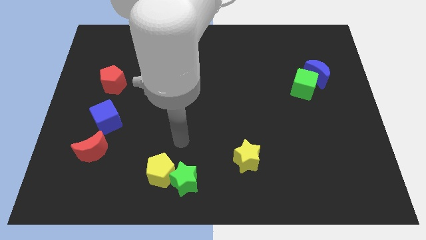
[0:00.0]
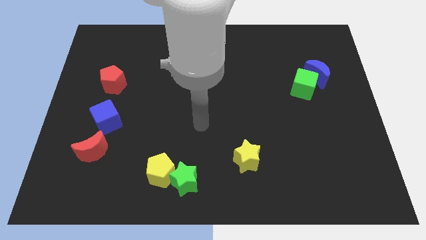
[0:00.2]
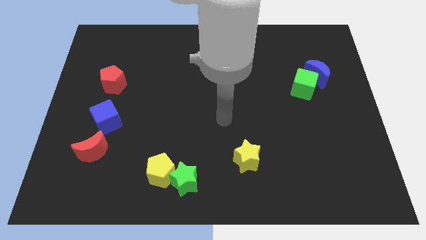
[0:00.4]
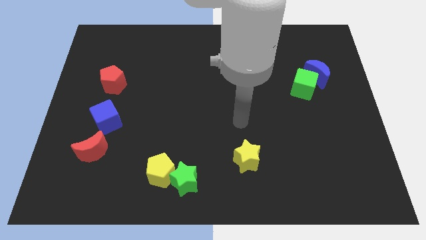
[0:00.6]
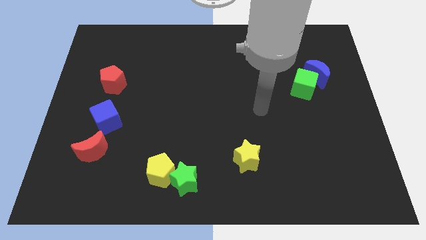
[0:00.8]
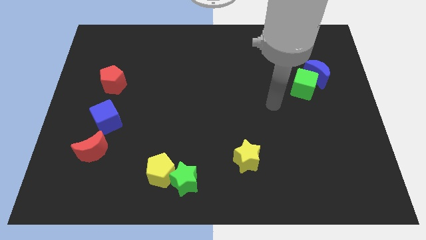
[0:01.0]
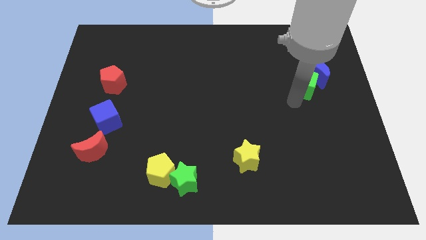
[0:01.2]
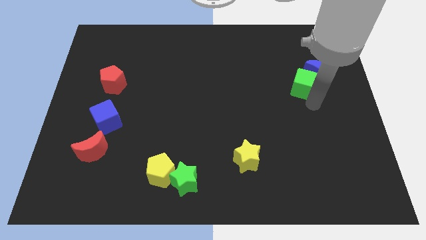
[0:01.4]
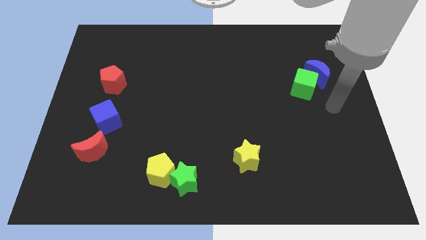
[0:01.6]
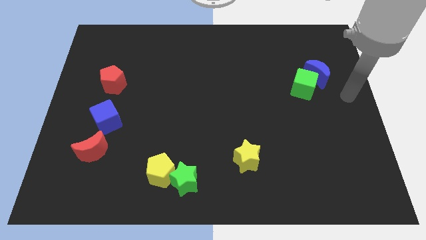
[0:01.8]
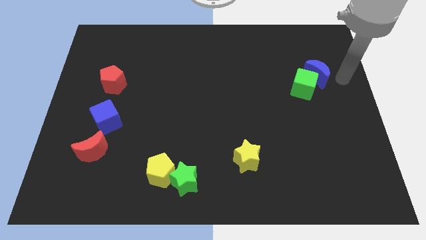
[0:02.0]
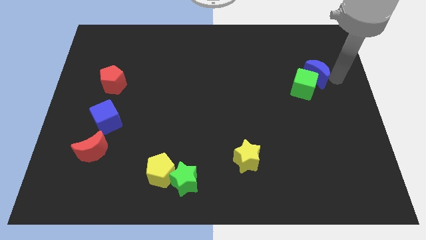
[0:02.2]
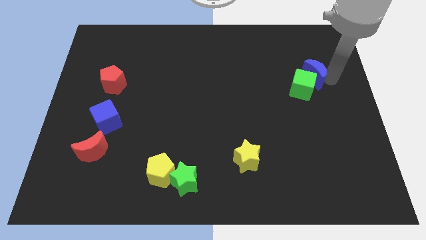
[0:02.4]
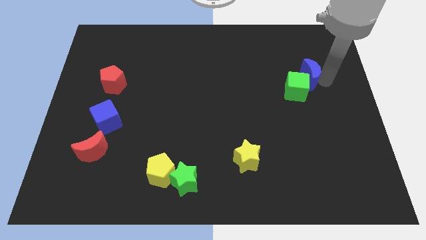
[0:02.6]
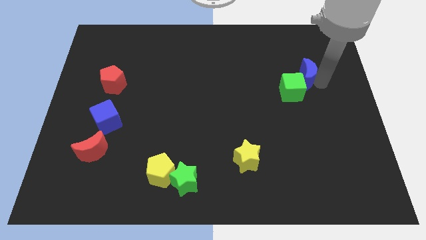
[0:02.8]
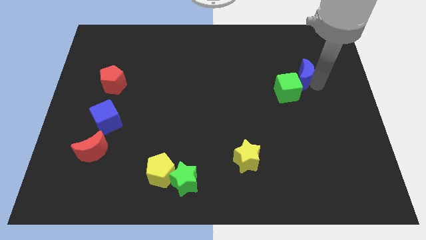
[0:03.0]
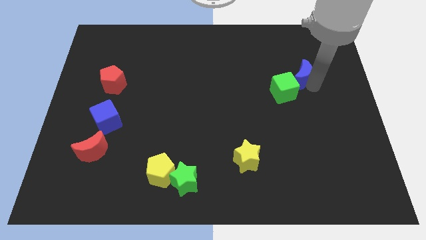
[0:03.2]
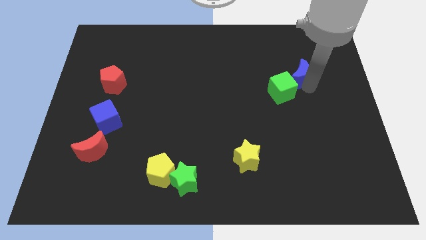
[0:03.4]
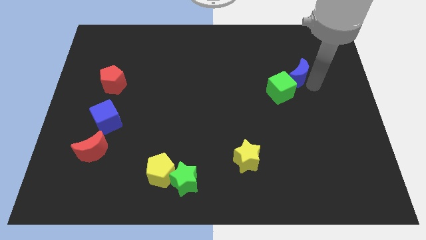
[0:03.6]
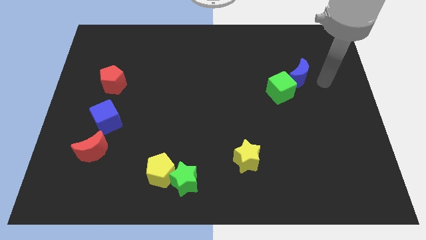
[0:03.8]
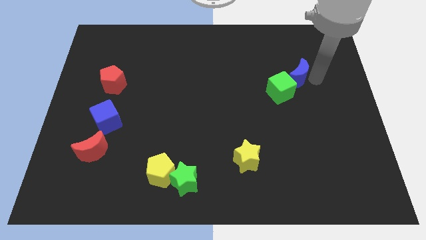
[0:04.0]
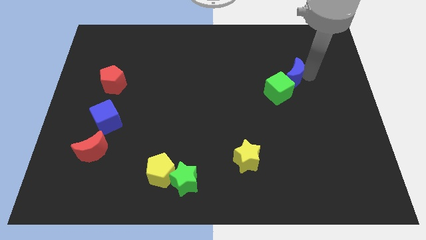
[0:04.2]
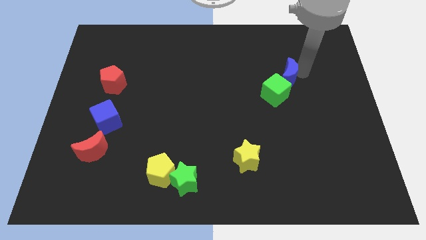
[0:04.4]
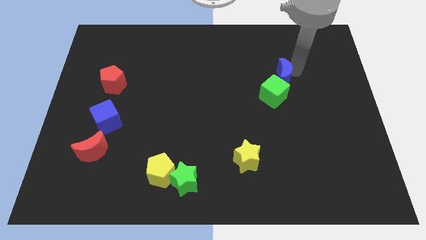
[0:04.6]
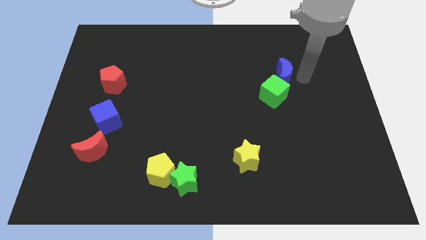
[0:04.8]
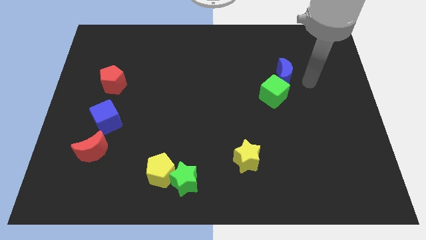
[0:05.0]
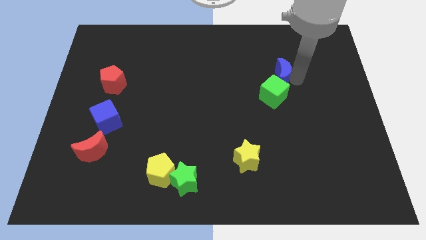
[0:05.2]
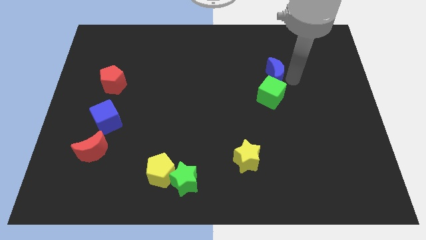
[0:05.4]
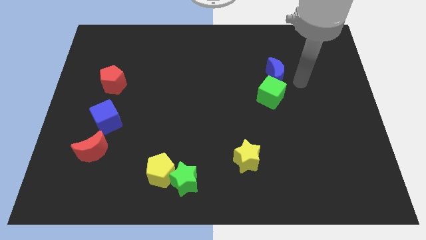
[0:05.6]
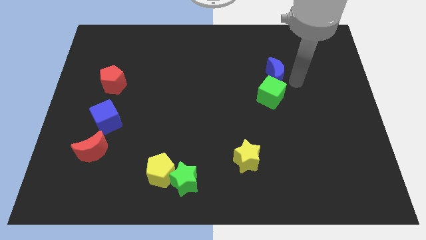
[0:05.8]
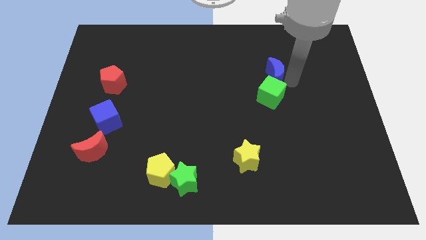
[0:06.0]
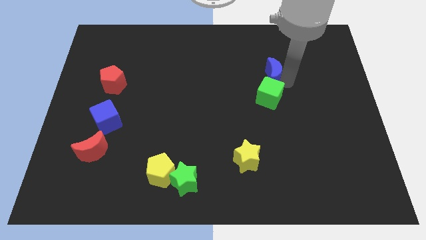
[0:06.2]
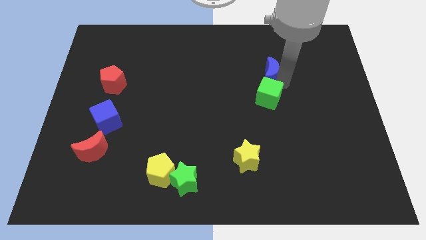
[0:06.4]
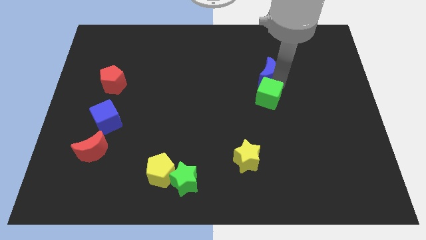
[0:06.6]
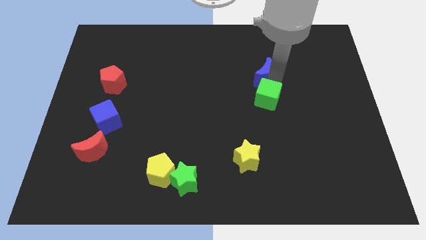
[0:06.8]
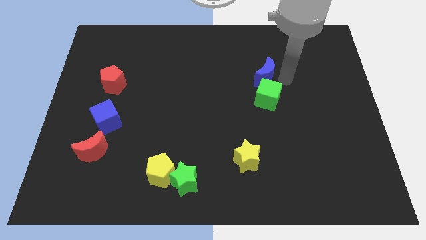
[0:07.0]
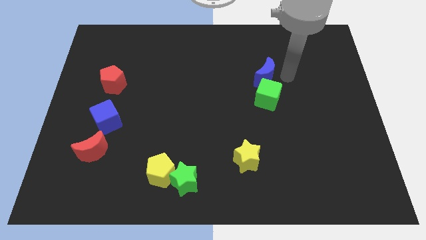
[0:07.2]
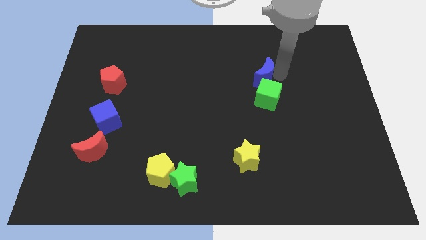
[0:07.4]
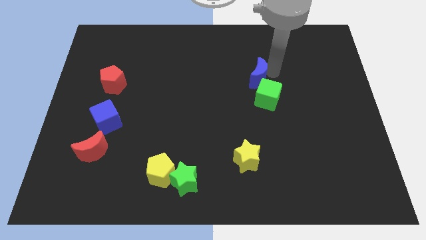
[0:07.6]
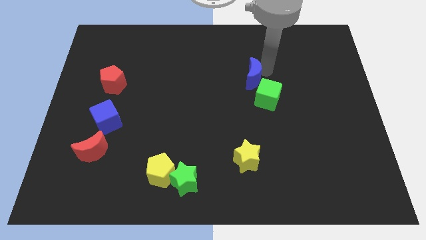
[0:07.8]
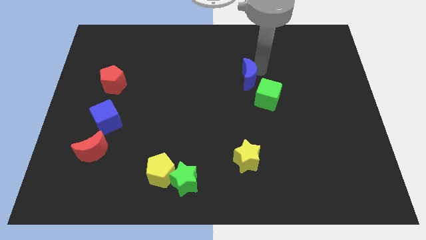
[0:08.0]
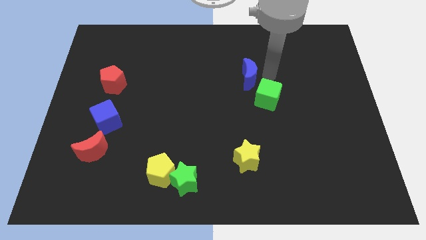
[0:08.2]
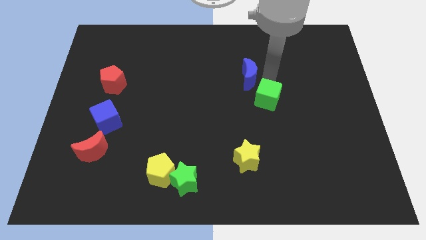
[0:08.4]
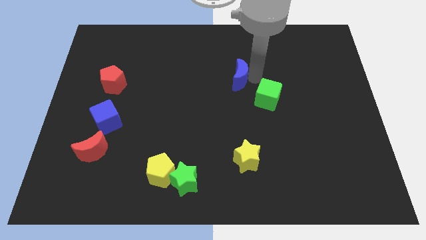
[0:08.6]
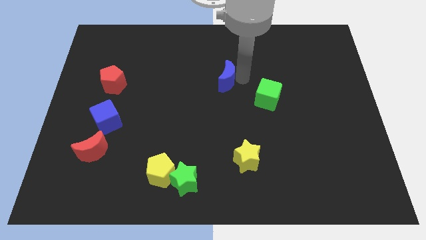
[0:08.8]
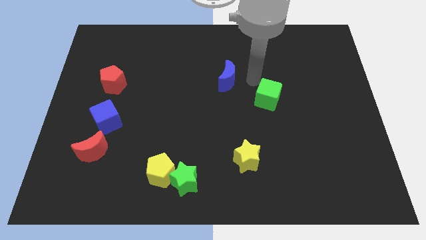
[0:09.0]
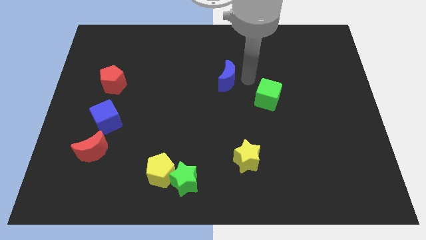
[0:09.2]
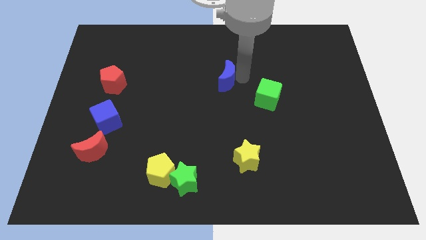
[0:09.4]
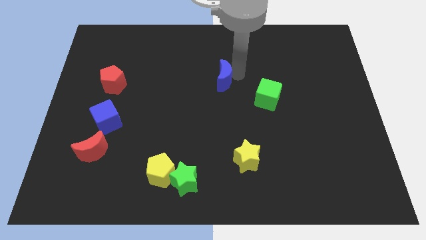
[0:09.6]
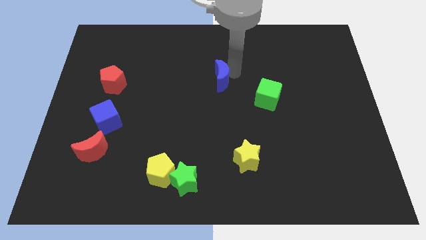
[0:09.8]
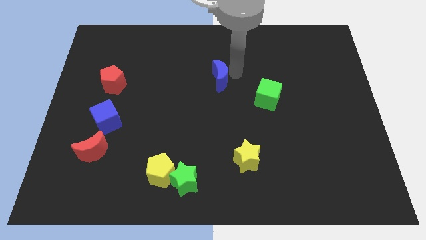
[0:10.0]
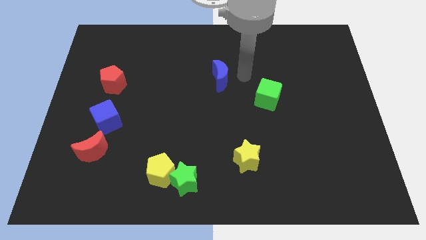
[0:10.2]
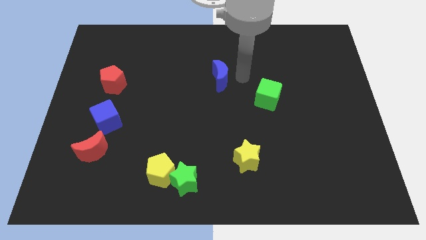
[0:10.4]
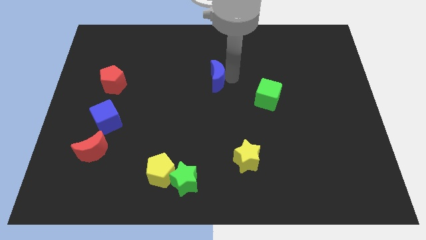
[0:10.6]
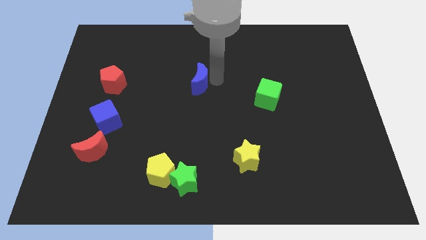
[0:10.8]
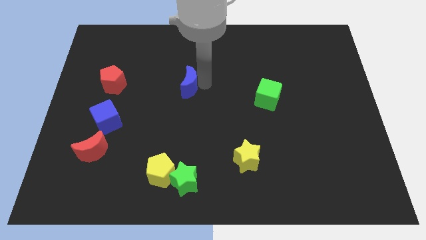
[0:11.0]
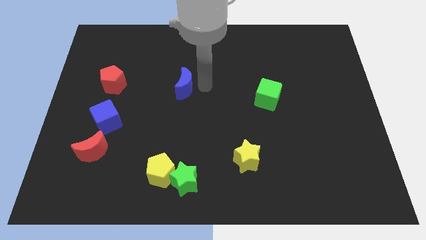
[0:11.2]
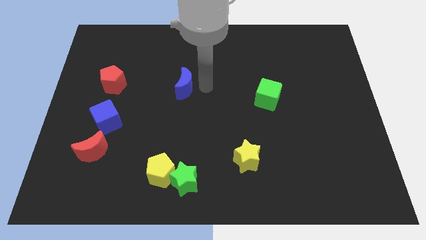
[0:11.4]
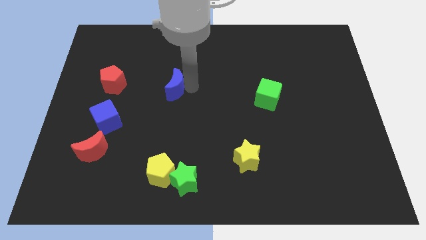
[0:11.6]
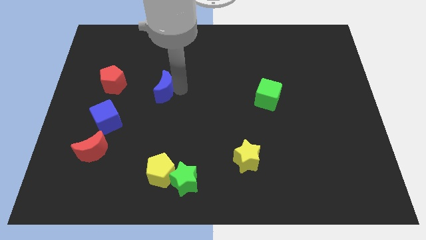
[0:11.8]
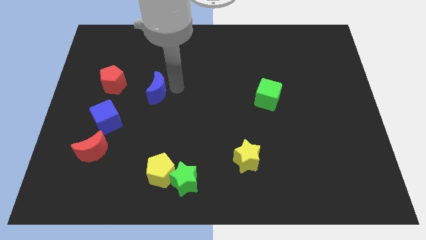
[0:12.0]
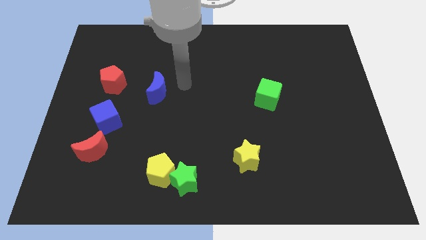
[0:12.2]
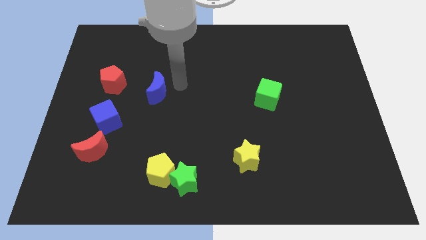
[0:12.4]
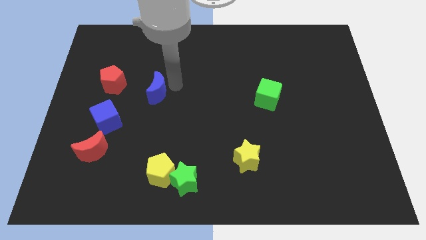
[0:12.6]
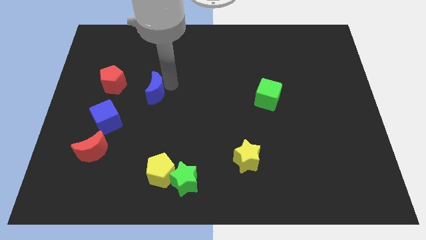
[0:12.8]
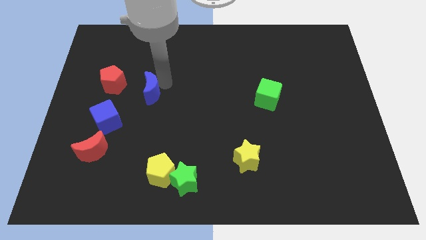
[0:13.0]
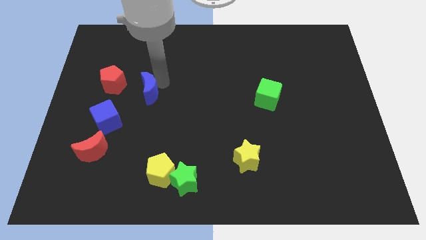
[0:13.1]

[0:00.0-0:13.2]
move the blue moon to the bottom right side of the red pentagon
